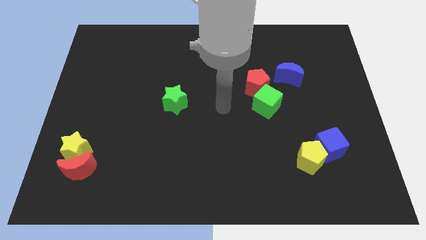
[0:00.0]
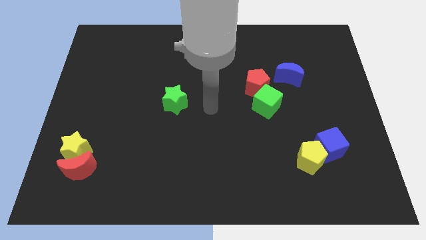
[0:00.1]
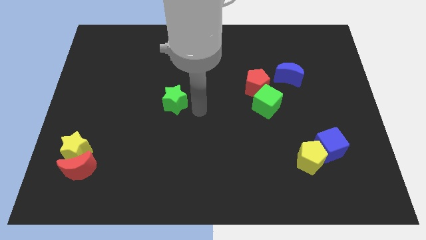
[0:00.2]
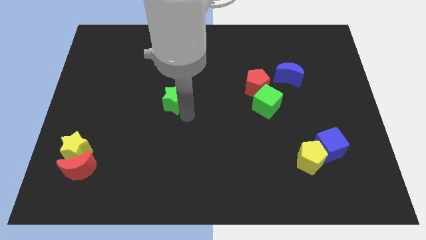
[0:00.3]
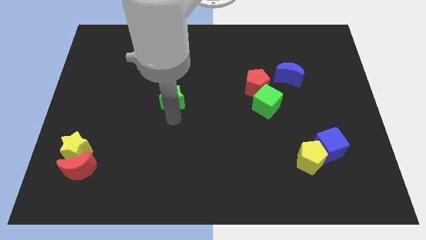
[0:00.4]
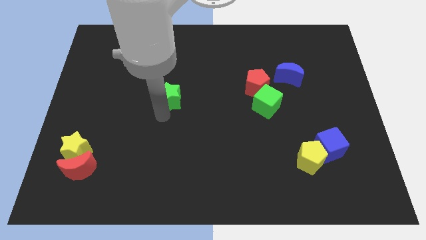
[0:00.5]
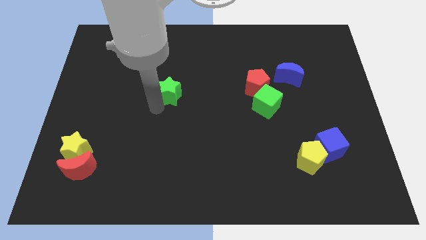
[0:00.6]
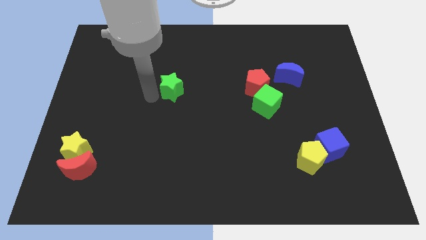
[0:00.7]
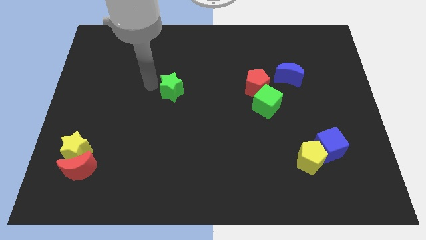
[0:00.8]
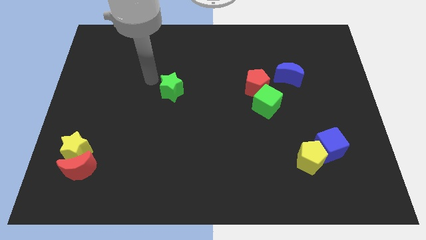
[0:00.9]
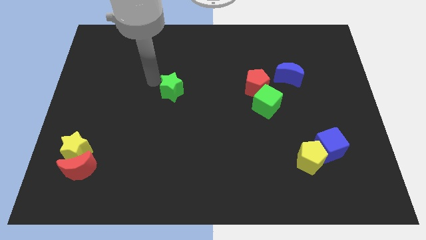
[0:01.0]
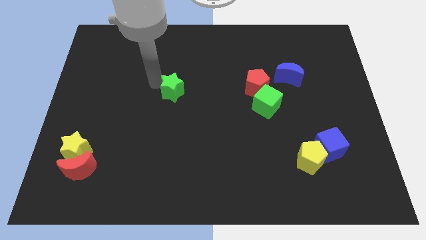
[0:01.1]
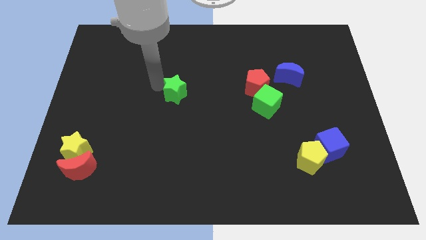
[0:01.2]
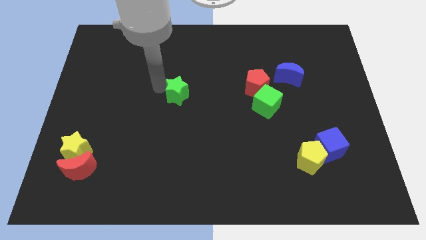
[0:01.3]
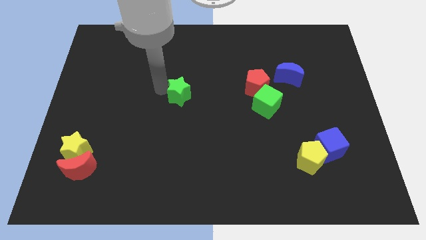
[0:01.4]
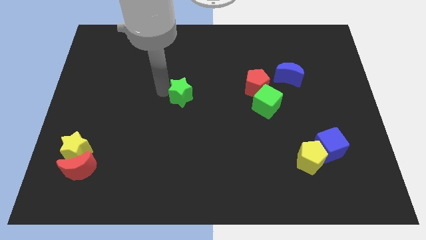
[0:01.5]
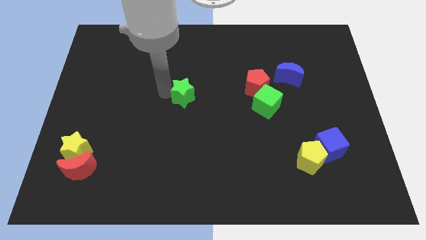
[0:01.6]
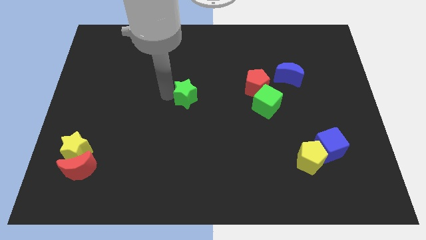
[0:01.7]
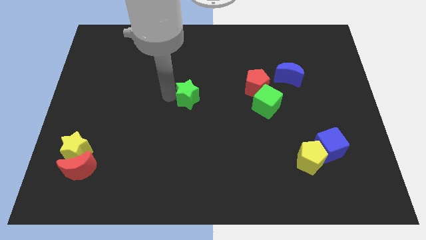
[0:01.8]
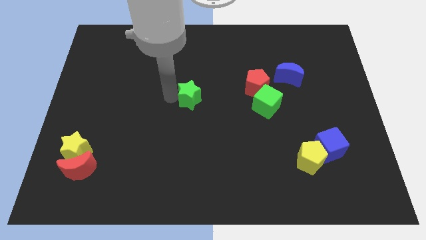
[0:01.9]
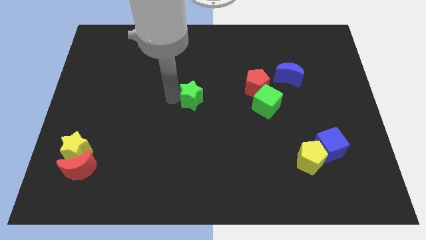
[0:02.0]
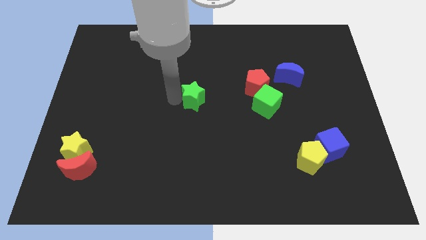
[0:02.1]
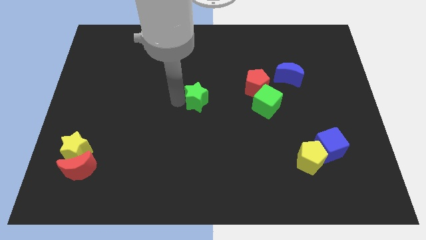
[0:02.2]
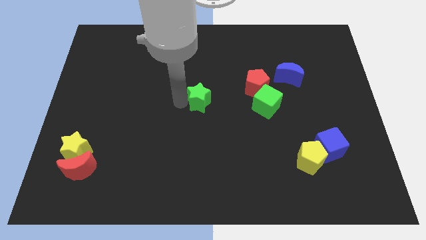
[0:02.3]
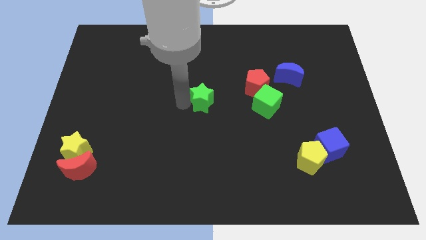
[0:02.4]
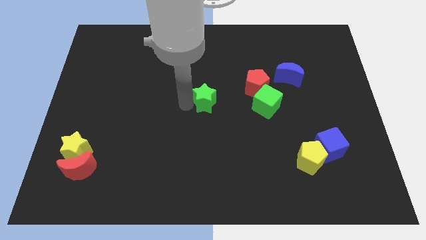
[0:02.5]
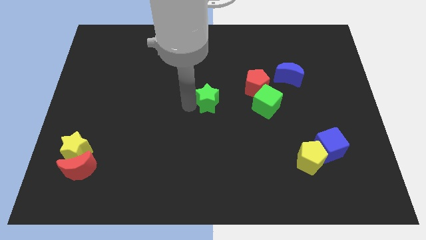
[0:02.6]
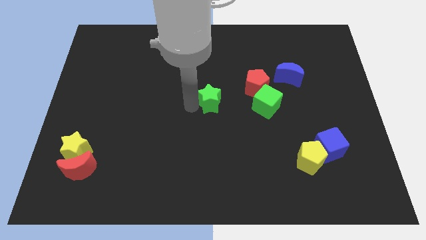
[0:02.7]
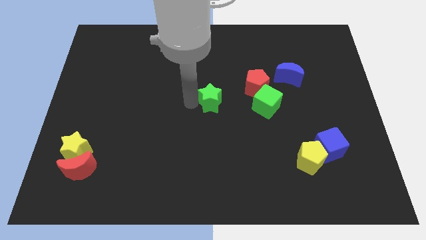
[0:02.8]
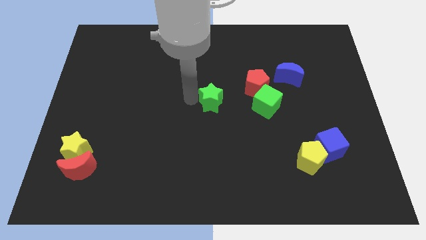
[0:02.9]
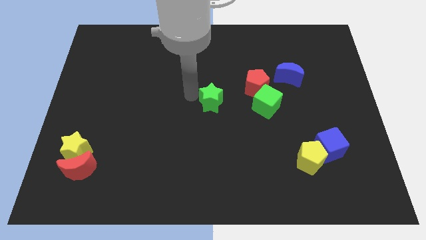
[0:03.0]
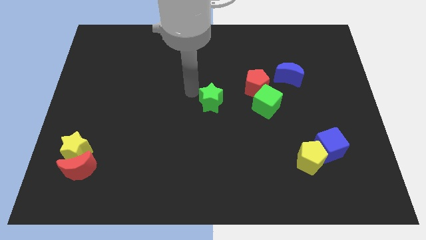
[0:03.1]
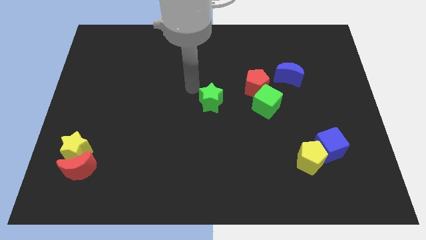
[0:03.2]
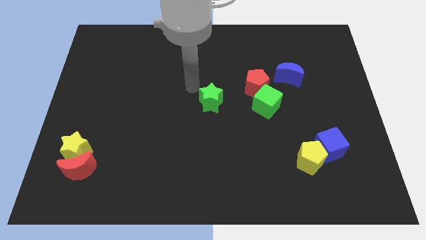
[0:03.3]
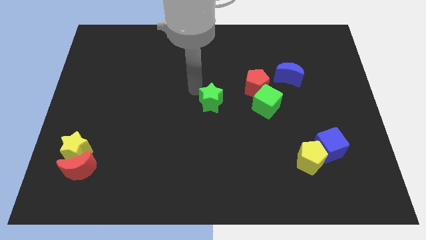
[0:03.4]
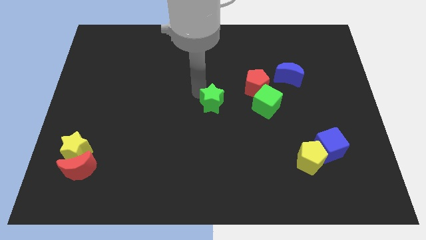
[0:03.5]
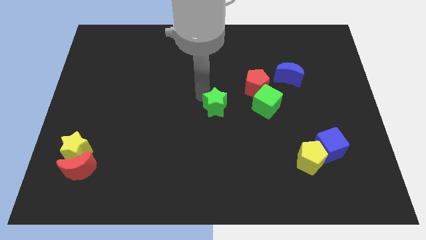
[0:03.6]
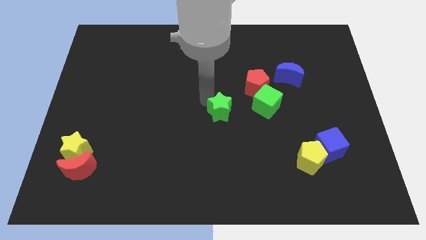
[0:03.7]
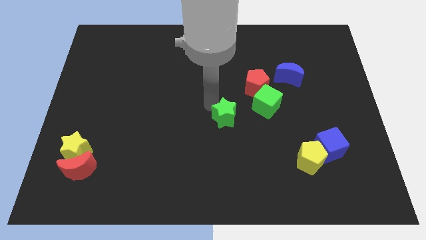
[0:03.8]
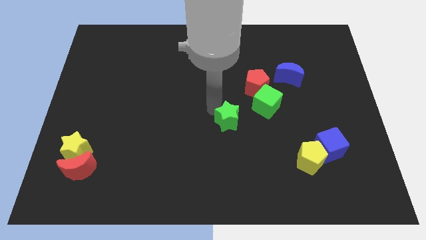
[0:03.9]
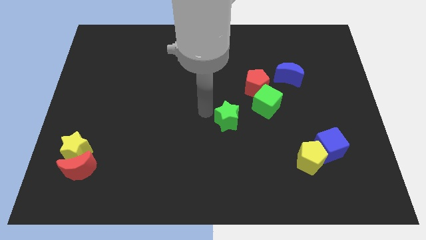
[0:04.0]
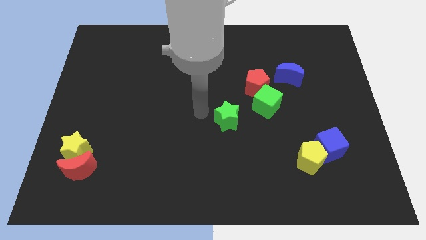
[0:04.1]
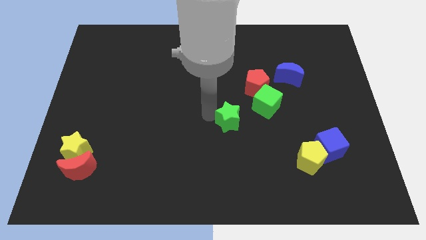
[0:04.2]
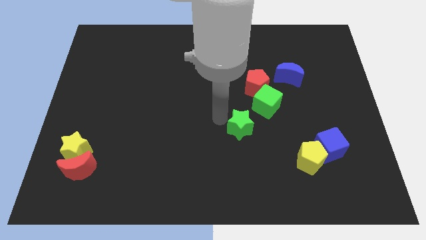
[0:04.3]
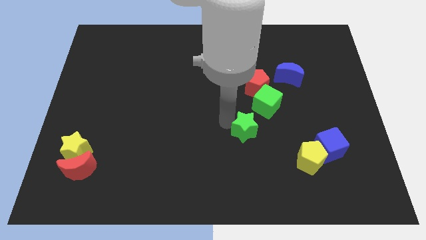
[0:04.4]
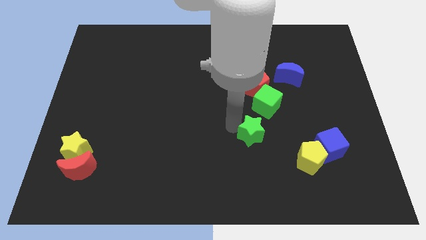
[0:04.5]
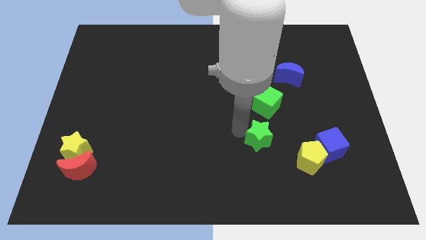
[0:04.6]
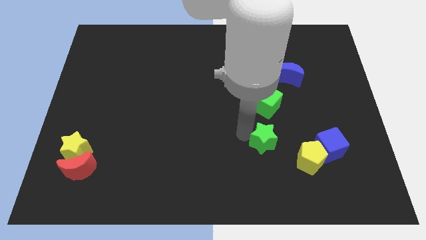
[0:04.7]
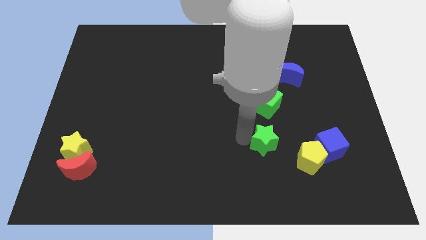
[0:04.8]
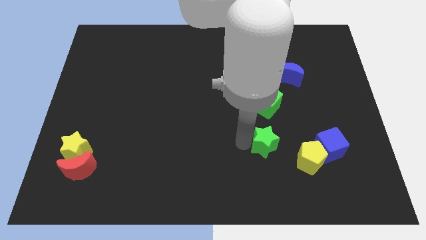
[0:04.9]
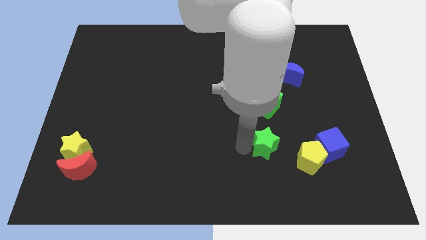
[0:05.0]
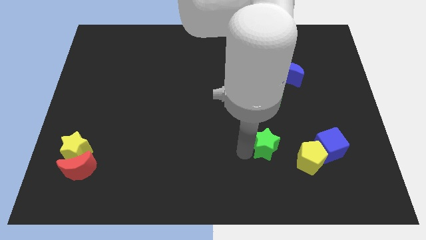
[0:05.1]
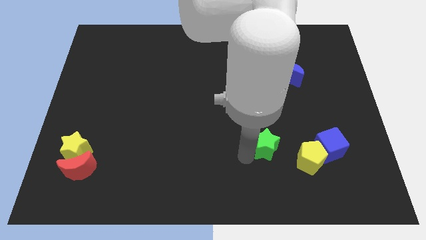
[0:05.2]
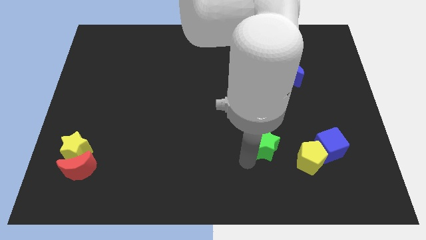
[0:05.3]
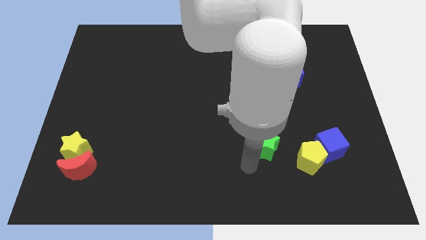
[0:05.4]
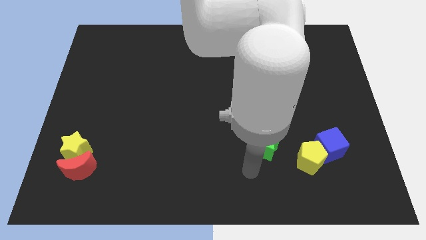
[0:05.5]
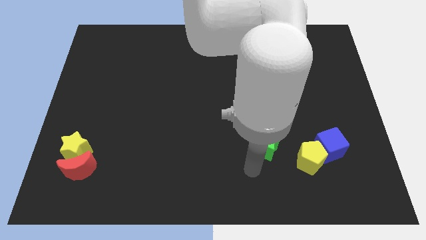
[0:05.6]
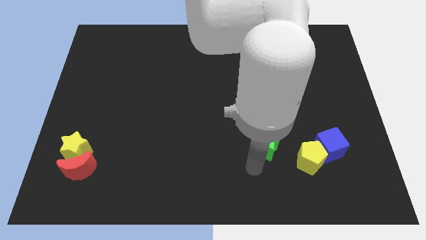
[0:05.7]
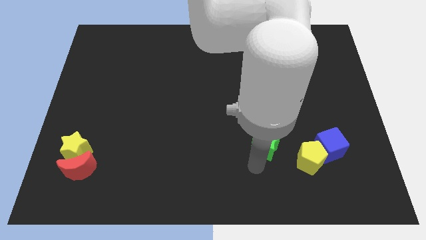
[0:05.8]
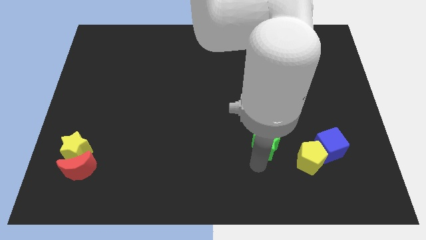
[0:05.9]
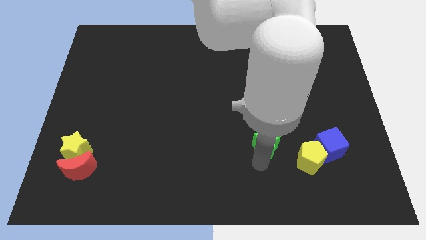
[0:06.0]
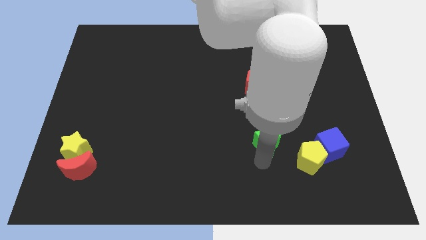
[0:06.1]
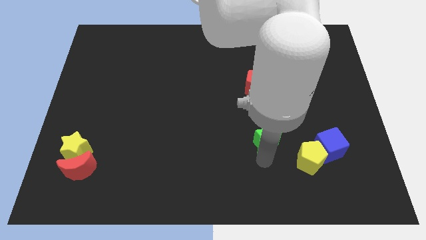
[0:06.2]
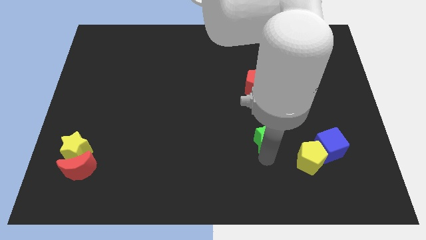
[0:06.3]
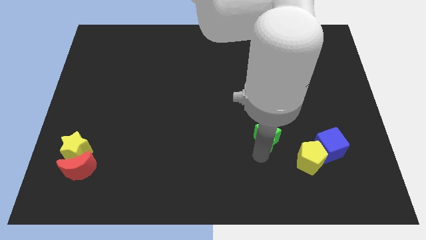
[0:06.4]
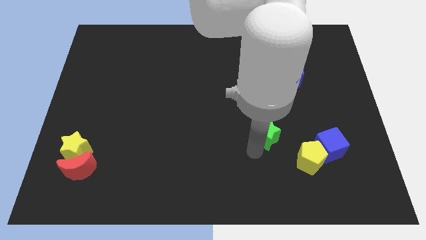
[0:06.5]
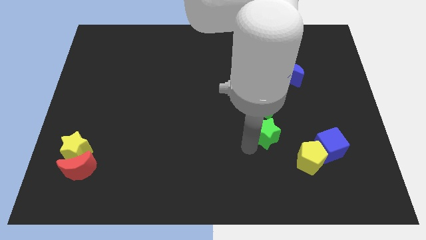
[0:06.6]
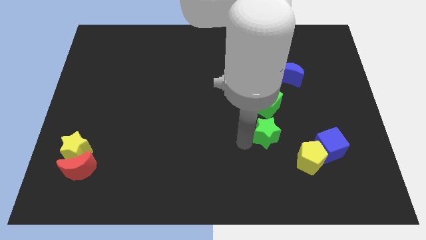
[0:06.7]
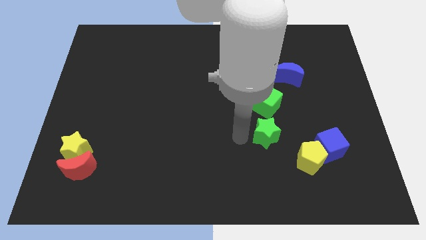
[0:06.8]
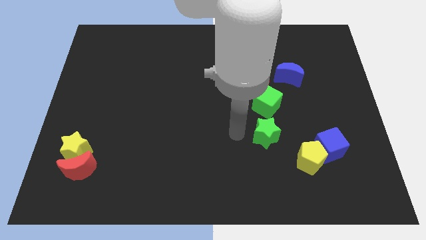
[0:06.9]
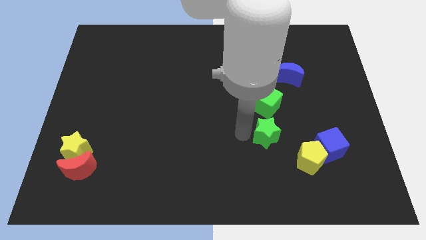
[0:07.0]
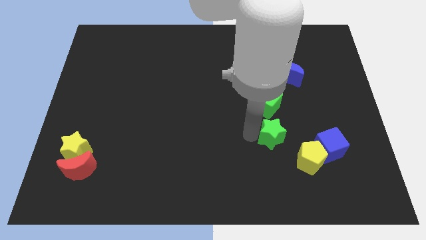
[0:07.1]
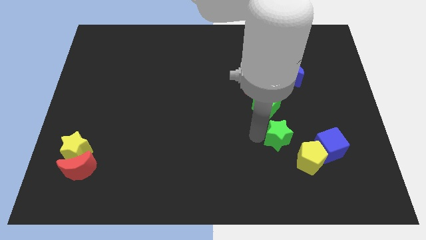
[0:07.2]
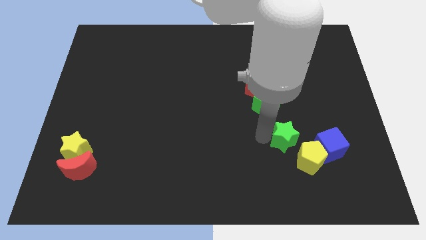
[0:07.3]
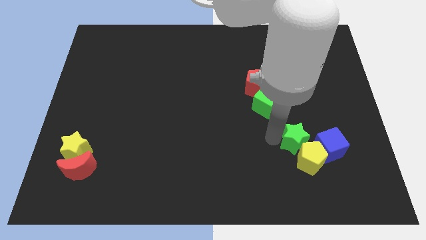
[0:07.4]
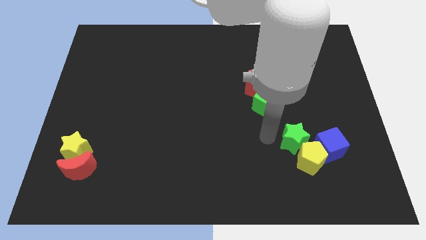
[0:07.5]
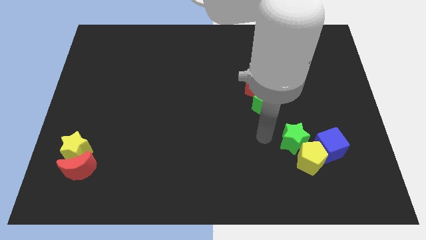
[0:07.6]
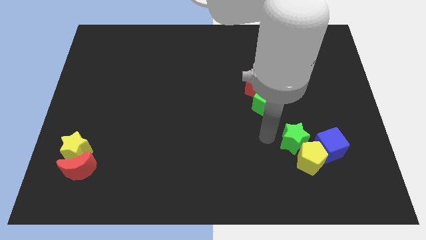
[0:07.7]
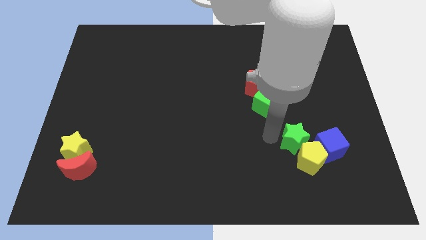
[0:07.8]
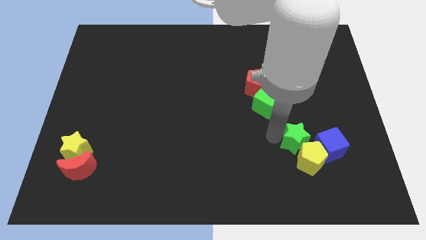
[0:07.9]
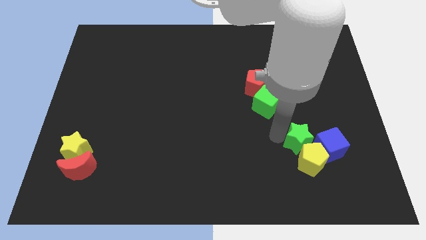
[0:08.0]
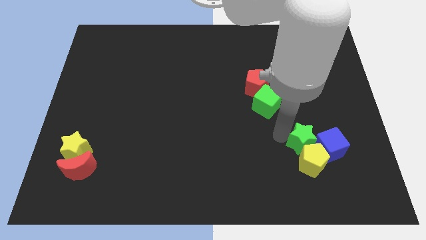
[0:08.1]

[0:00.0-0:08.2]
put the green star next to the blue cube
